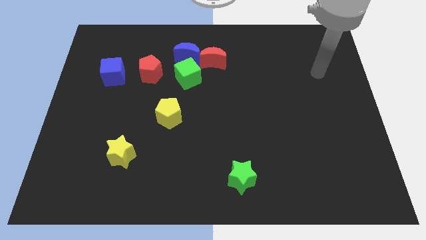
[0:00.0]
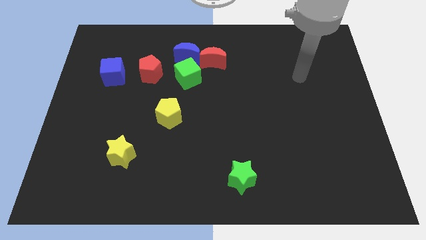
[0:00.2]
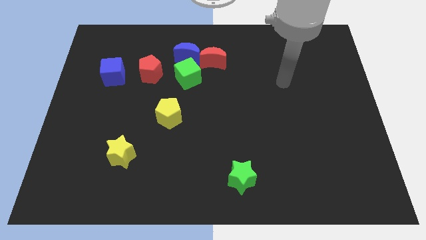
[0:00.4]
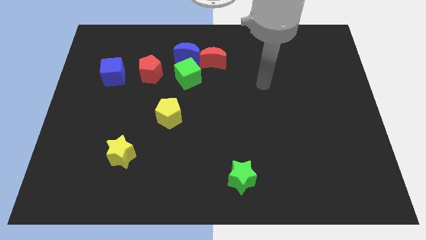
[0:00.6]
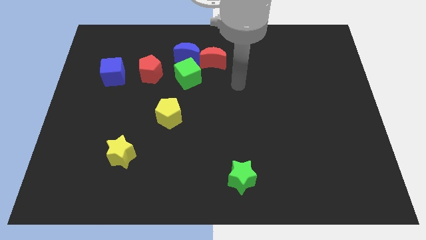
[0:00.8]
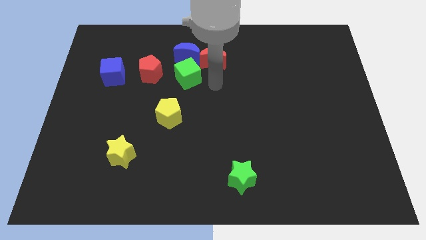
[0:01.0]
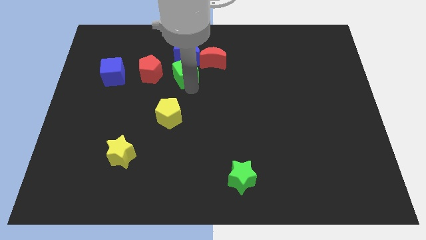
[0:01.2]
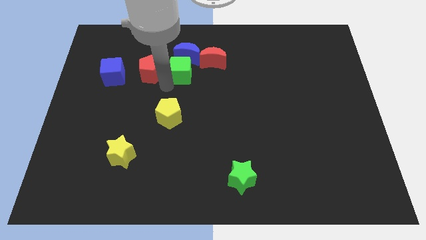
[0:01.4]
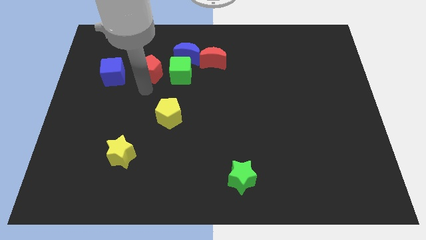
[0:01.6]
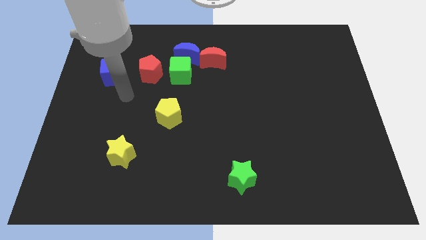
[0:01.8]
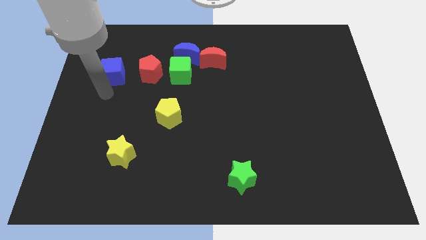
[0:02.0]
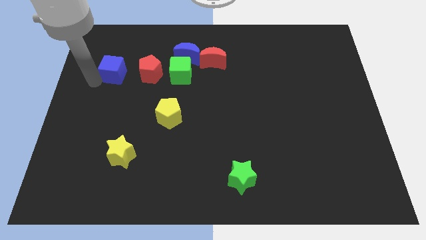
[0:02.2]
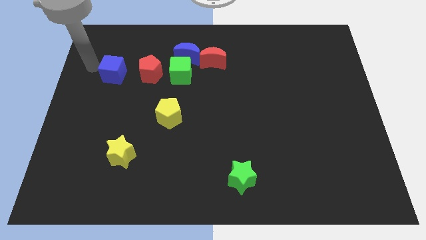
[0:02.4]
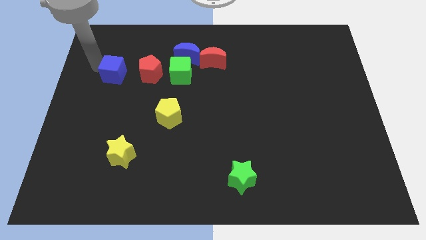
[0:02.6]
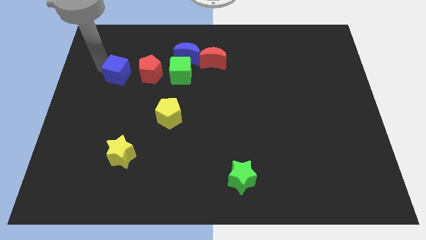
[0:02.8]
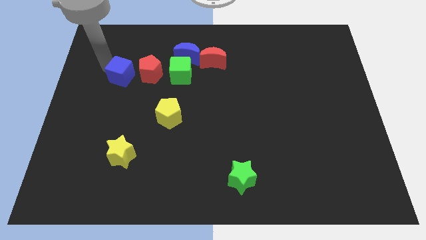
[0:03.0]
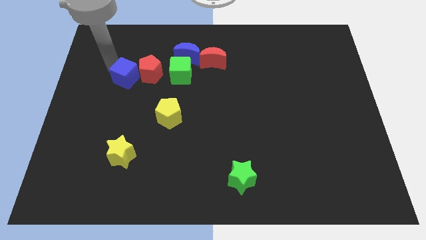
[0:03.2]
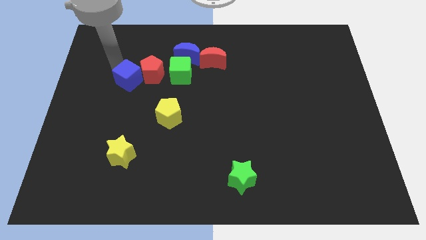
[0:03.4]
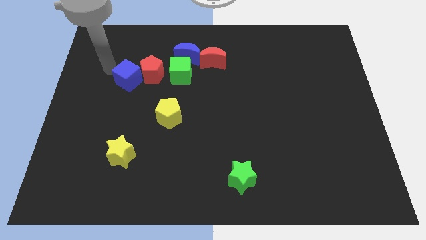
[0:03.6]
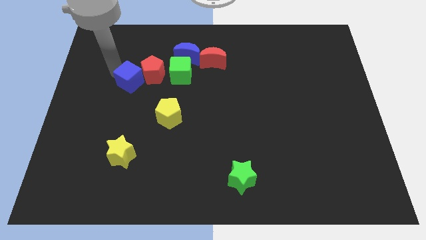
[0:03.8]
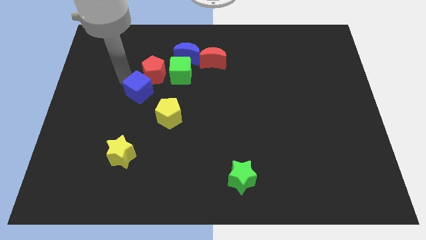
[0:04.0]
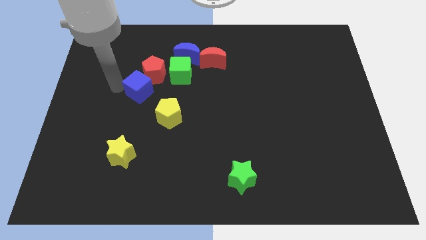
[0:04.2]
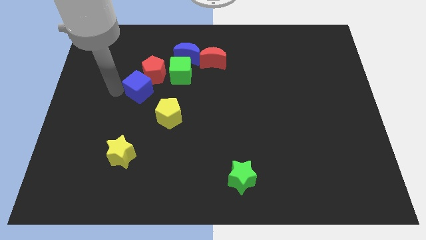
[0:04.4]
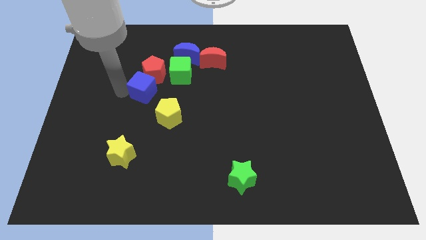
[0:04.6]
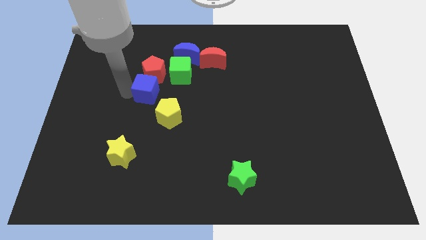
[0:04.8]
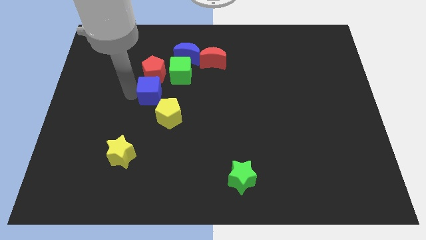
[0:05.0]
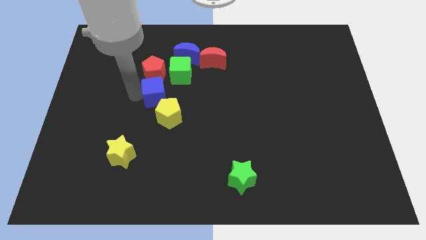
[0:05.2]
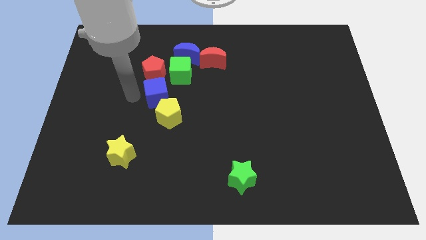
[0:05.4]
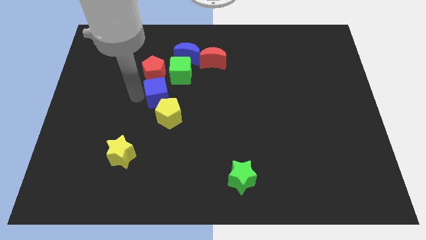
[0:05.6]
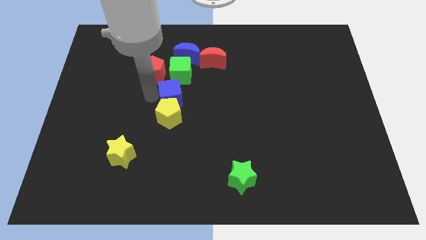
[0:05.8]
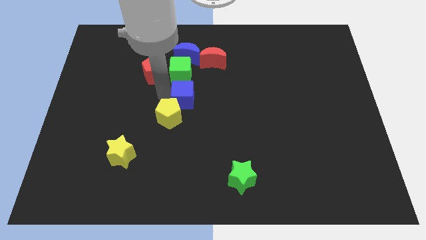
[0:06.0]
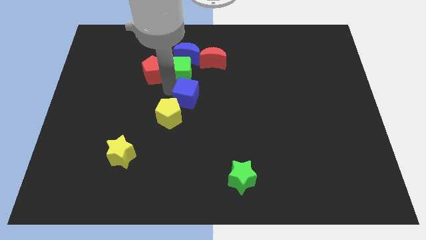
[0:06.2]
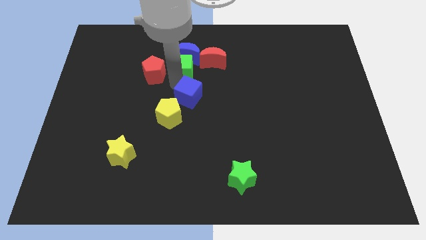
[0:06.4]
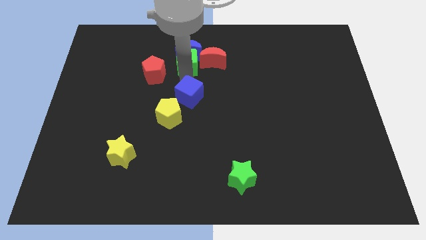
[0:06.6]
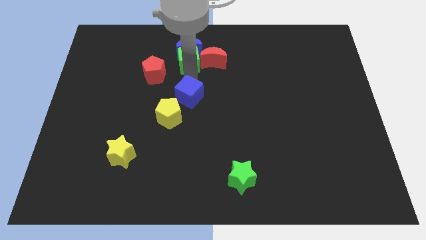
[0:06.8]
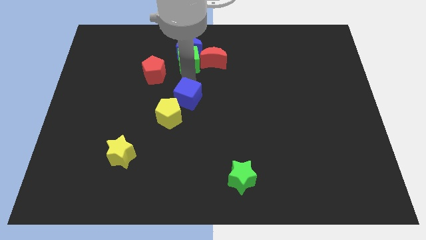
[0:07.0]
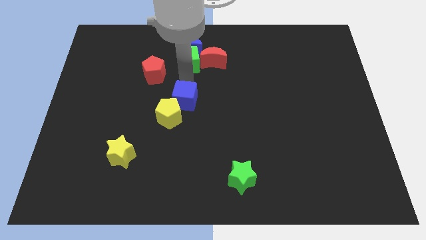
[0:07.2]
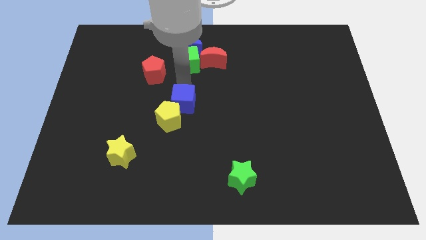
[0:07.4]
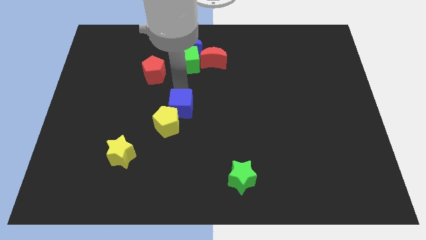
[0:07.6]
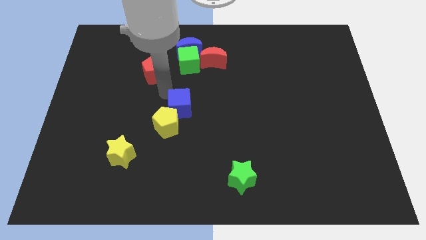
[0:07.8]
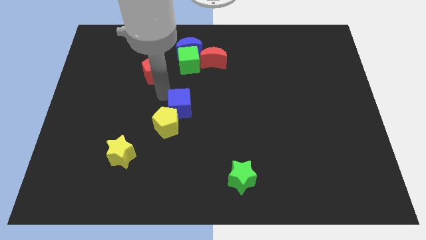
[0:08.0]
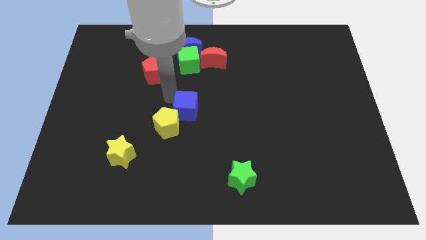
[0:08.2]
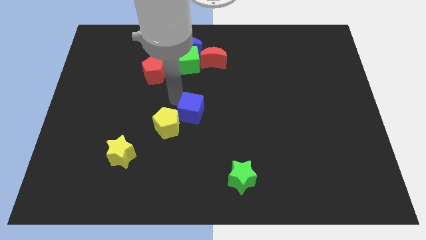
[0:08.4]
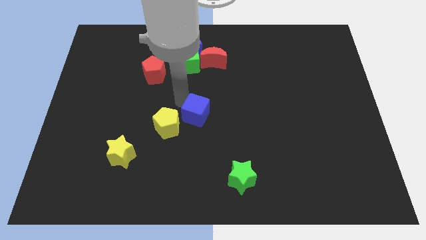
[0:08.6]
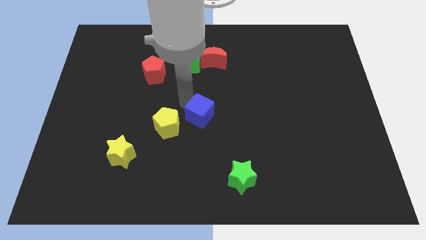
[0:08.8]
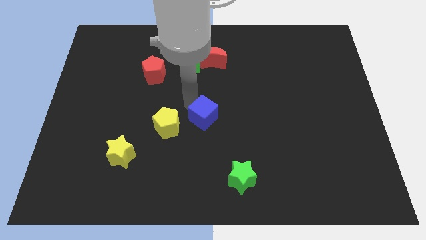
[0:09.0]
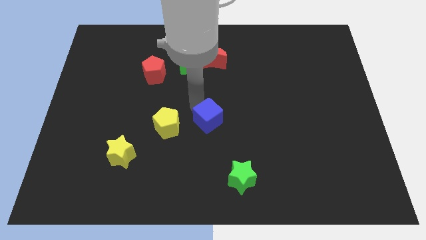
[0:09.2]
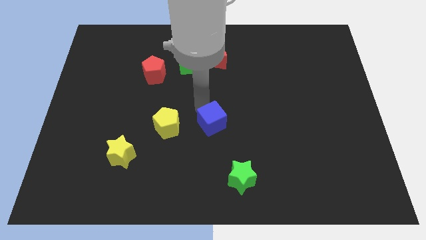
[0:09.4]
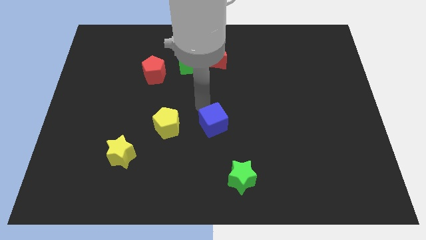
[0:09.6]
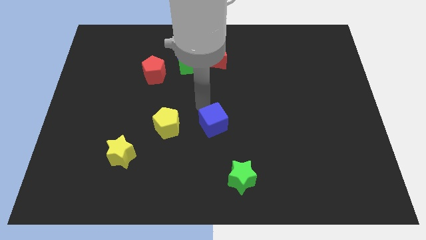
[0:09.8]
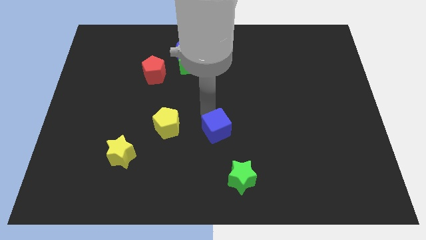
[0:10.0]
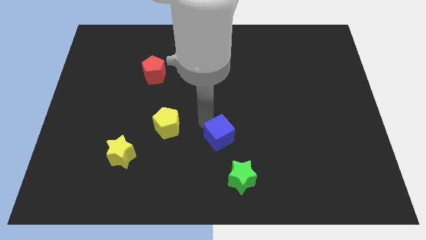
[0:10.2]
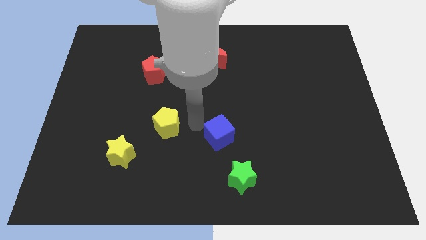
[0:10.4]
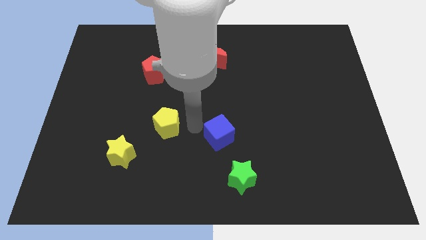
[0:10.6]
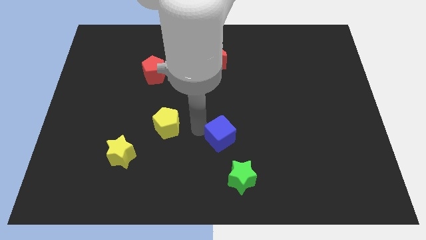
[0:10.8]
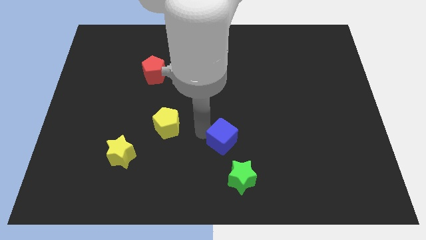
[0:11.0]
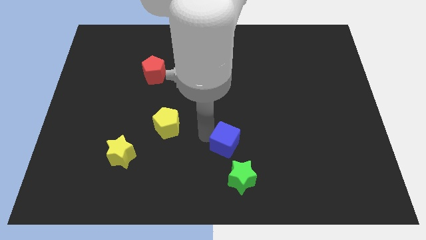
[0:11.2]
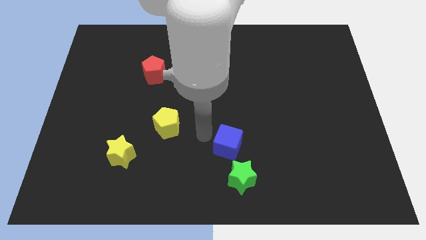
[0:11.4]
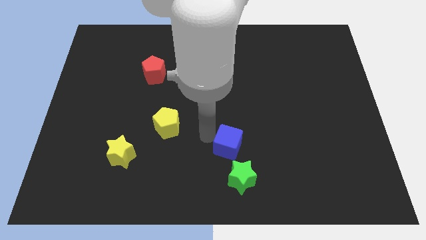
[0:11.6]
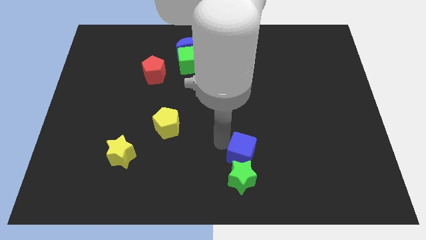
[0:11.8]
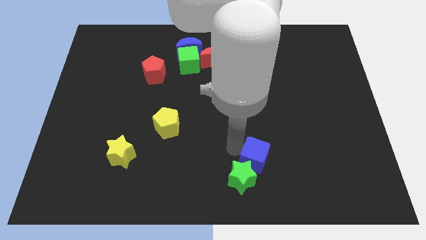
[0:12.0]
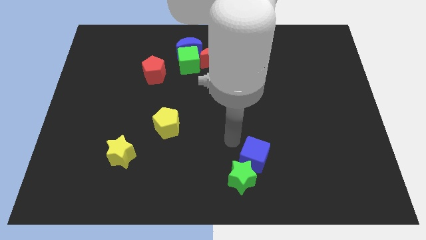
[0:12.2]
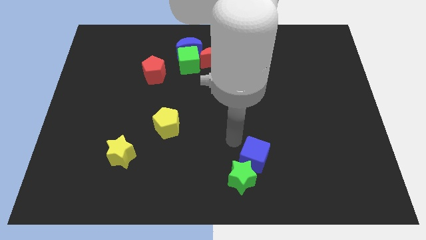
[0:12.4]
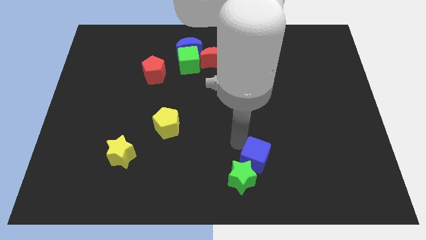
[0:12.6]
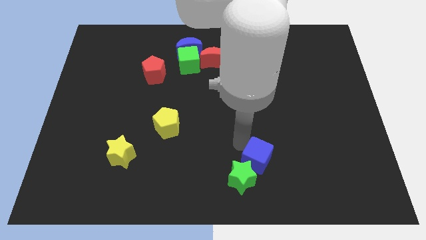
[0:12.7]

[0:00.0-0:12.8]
move the blue cube to the right of the green star
